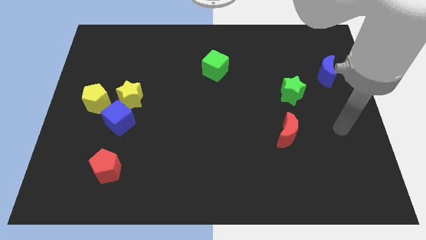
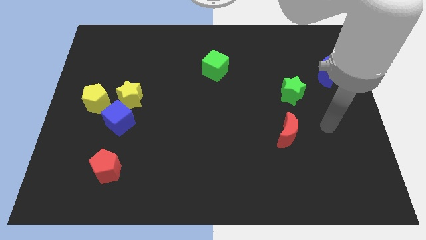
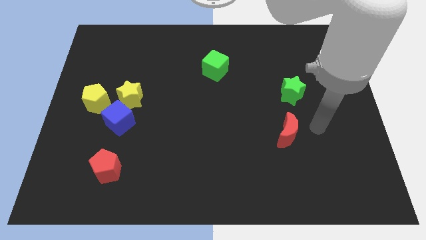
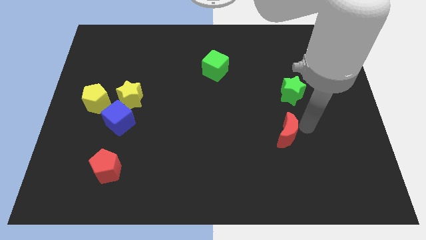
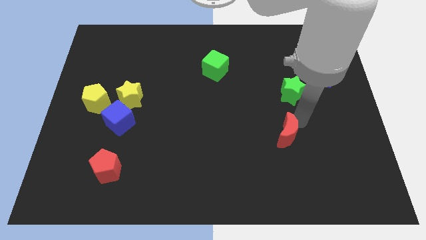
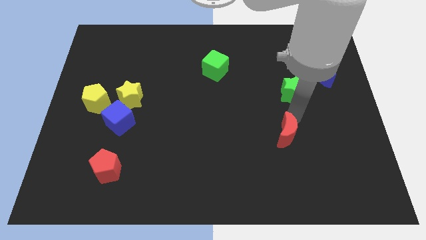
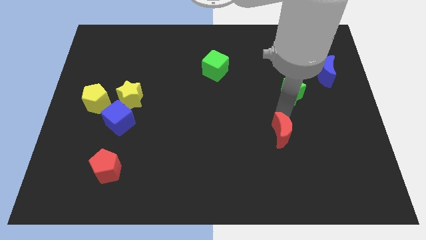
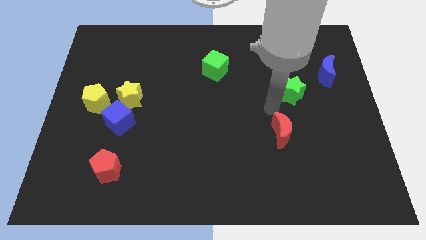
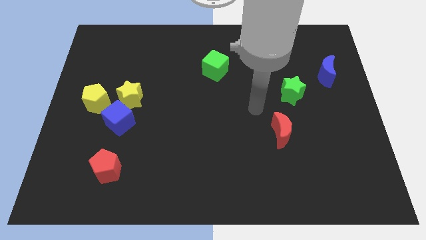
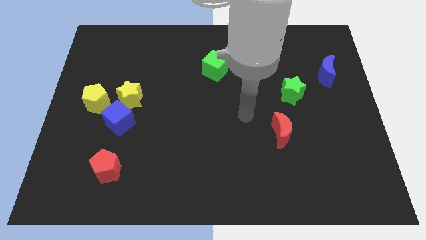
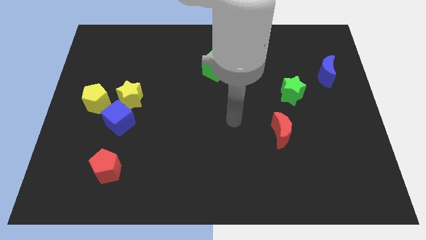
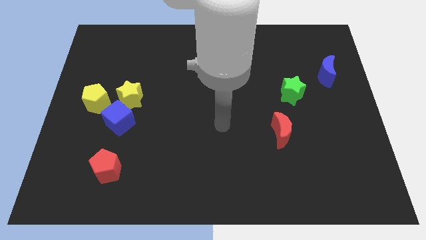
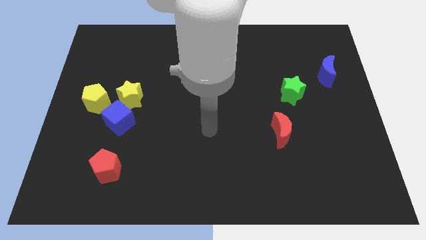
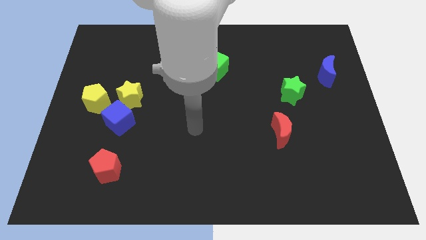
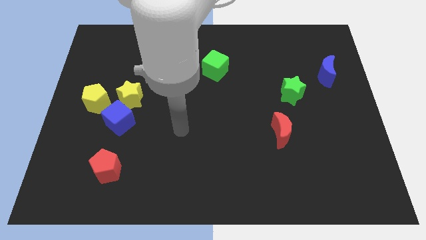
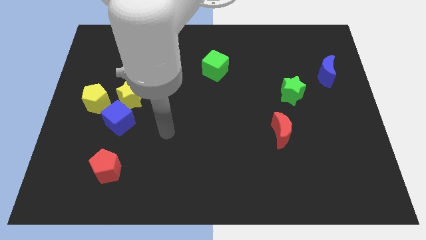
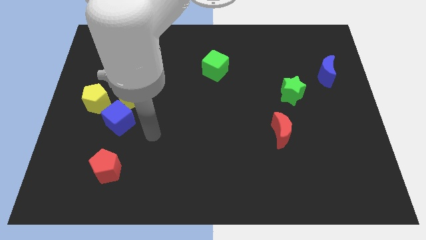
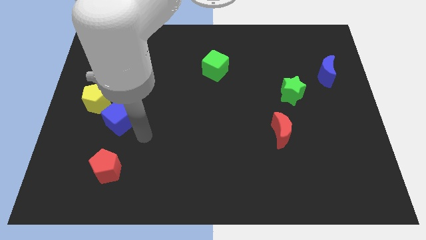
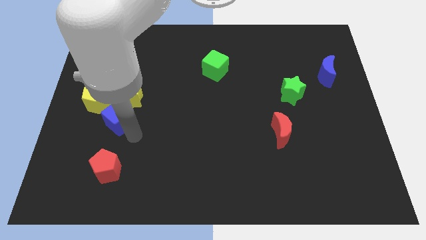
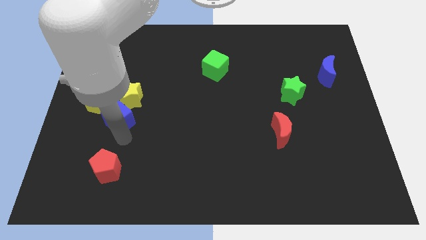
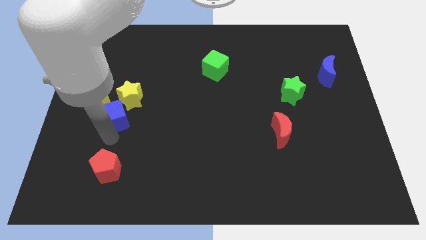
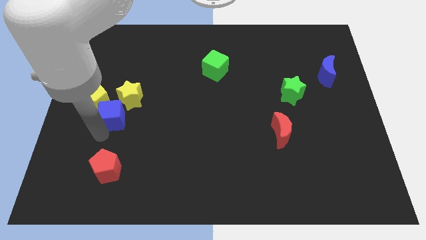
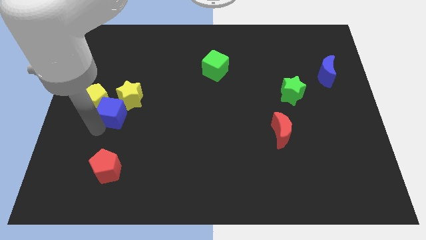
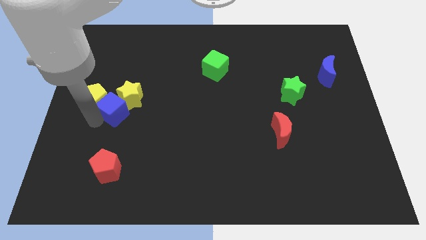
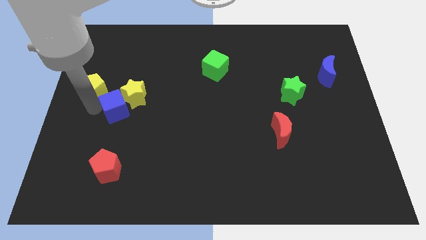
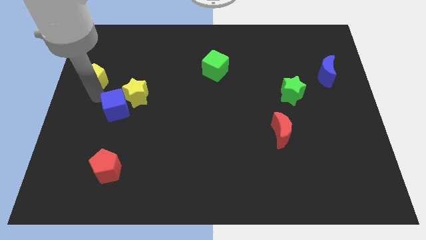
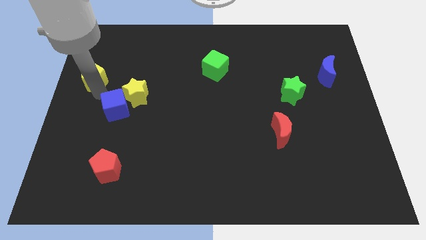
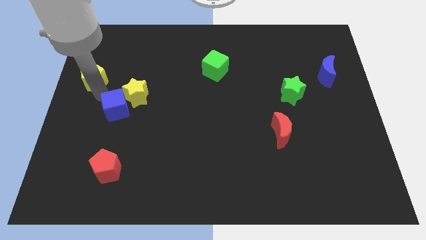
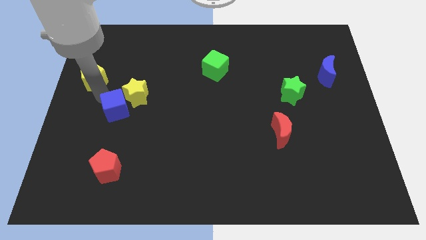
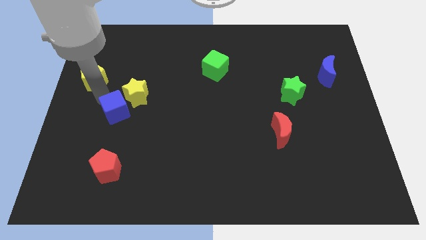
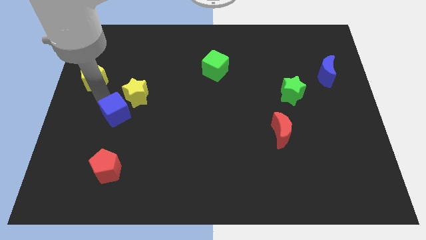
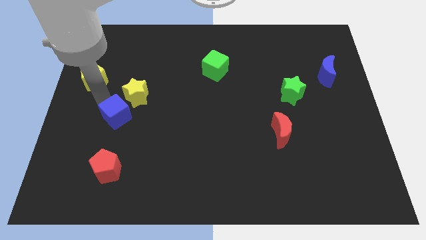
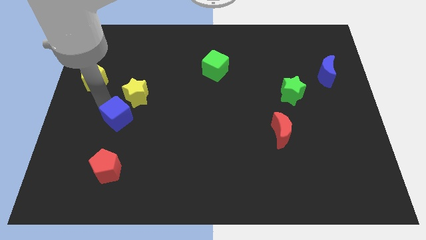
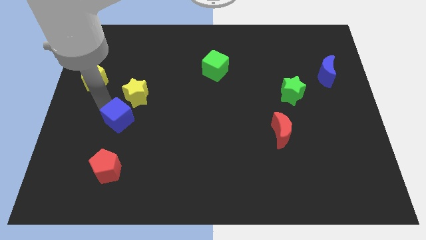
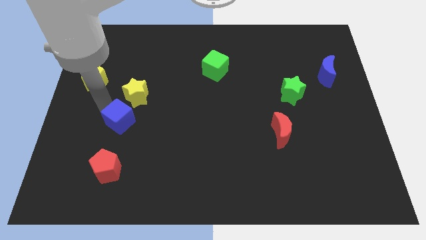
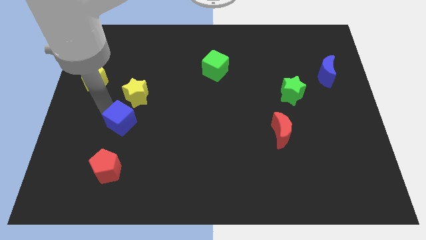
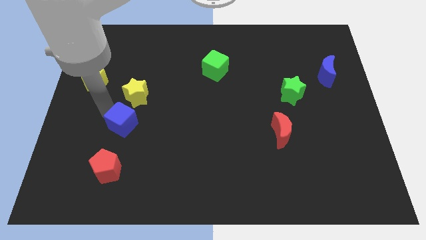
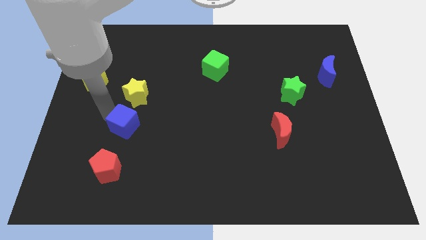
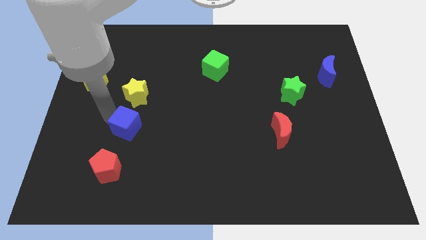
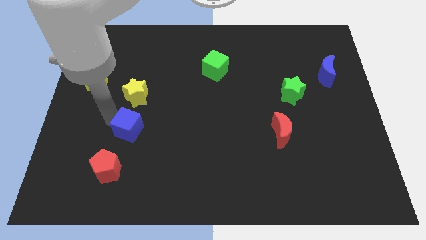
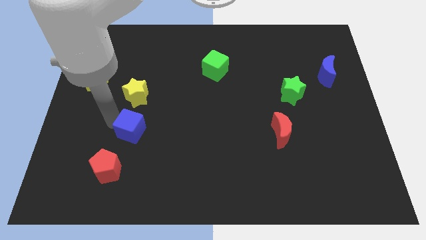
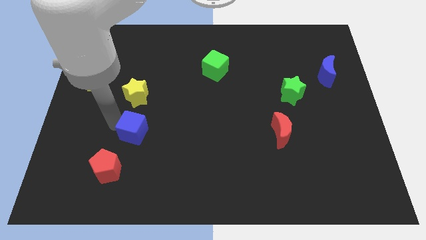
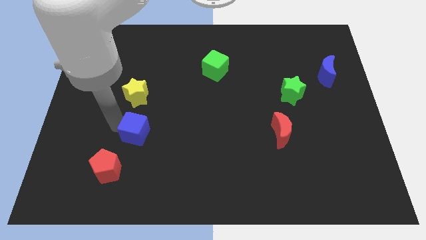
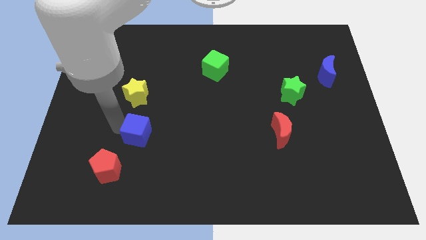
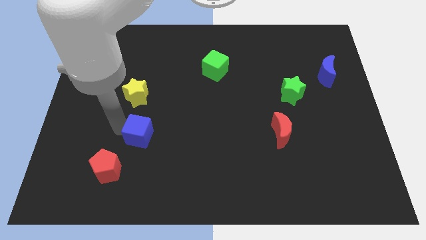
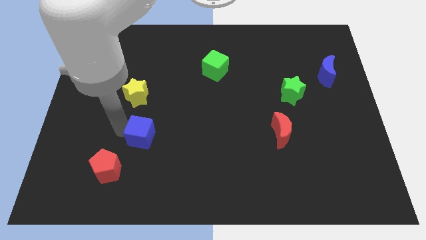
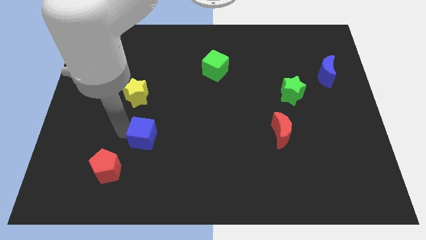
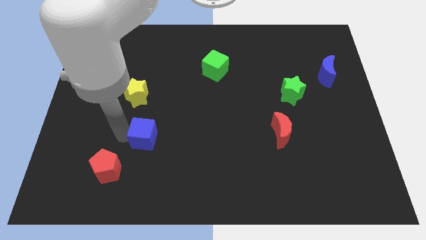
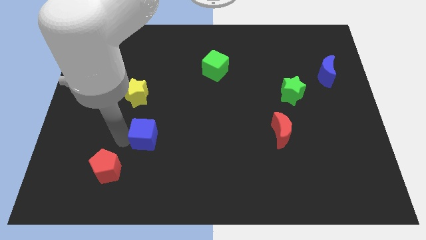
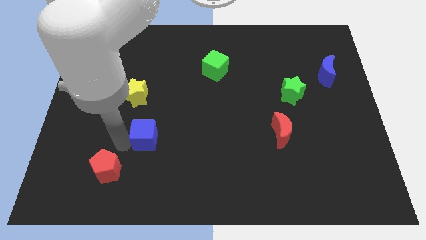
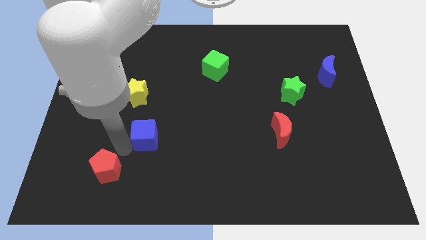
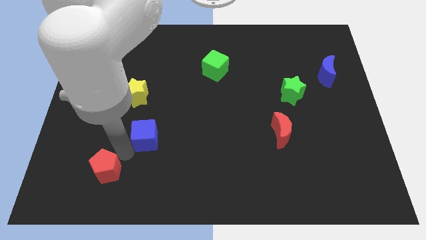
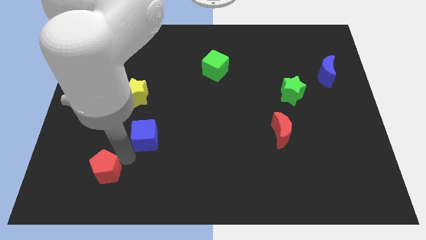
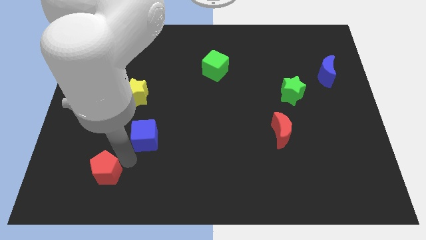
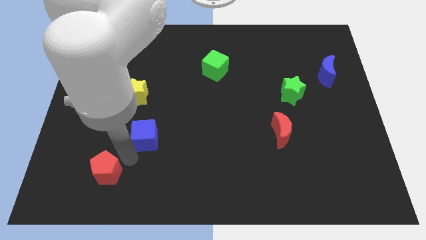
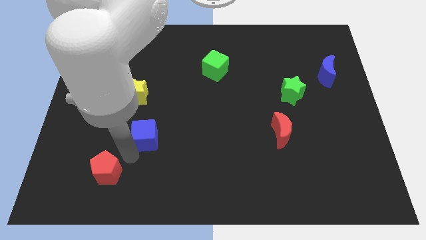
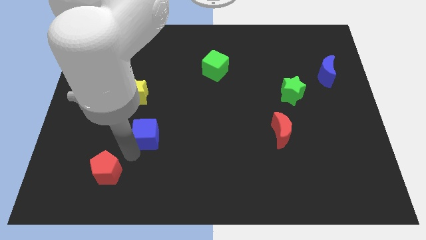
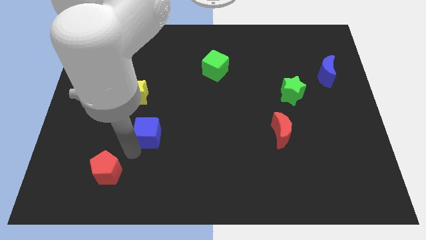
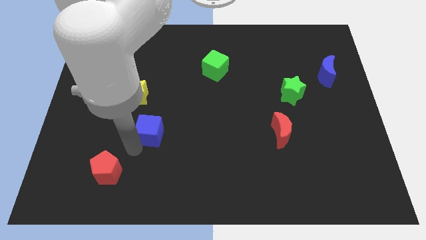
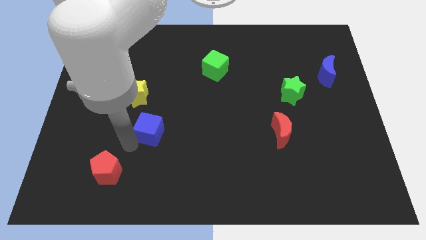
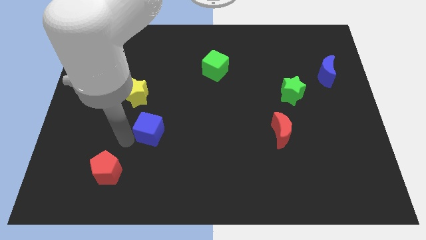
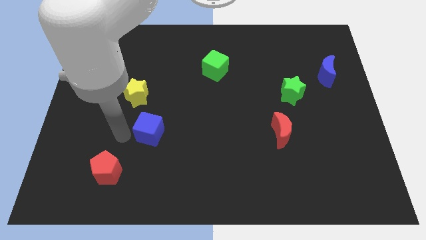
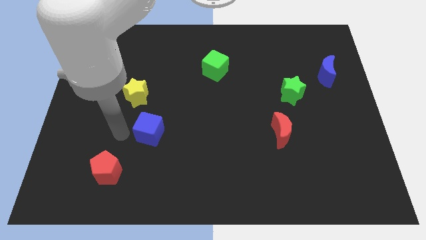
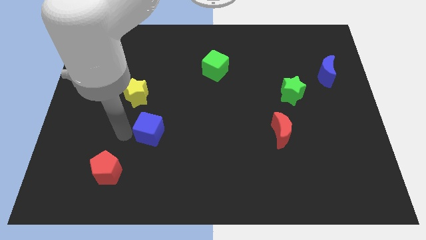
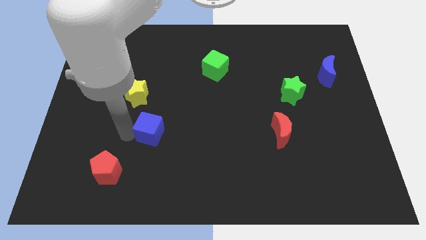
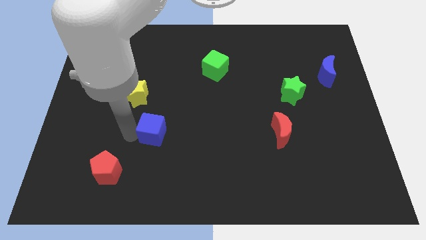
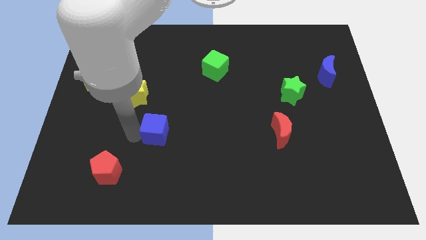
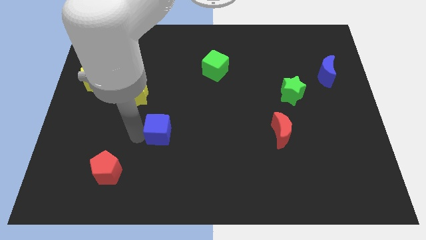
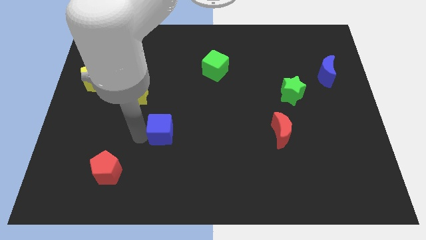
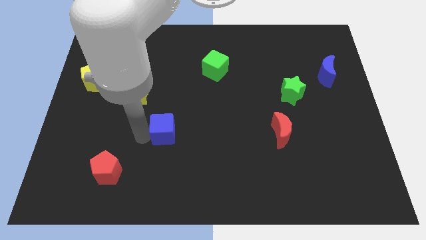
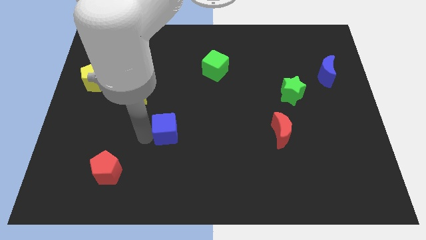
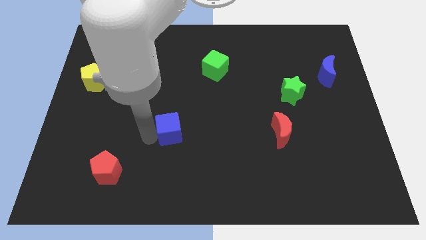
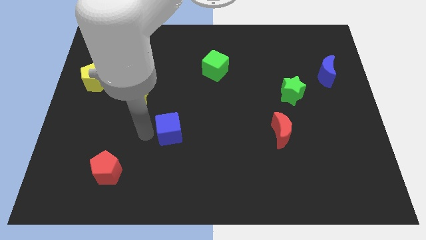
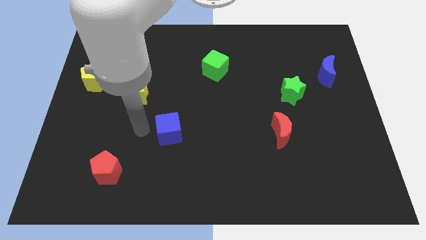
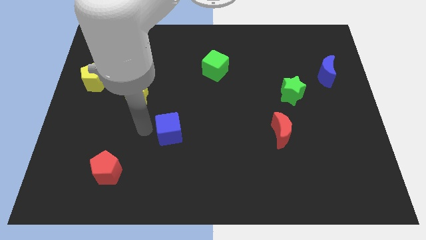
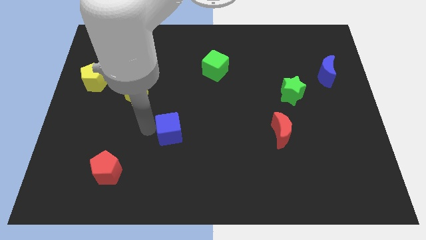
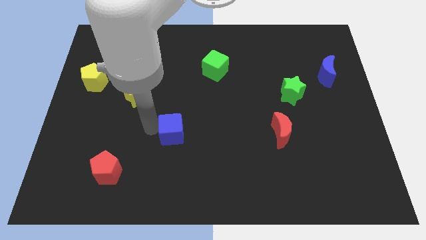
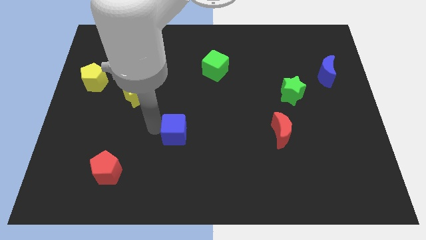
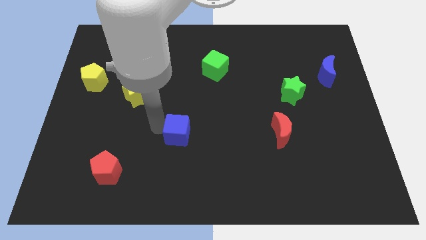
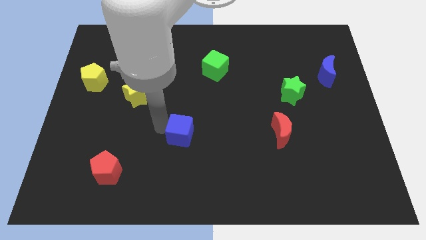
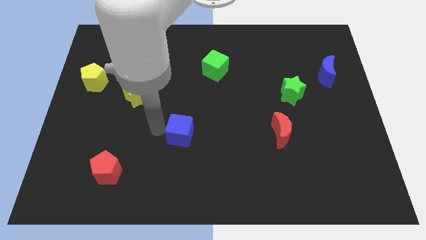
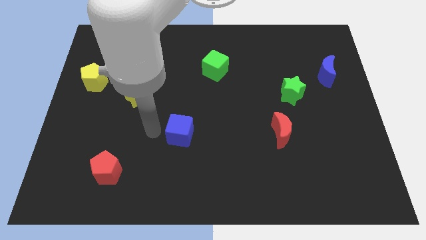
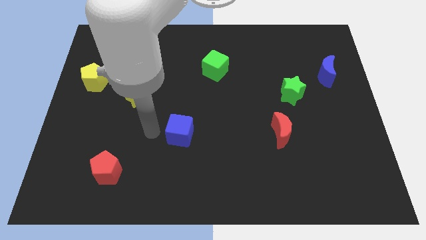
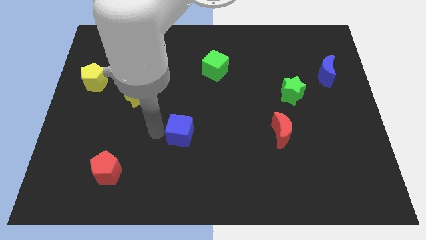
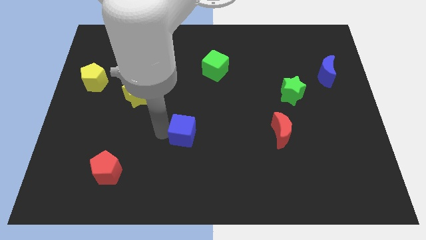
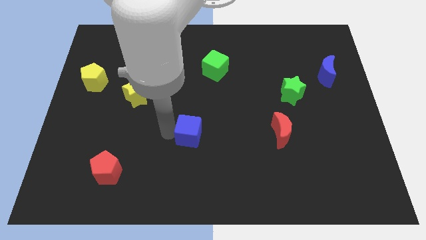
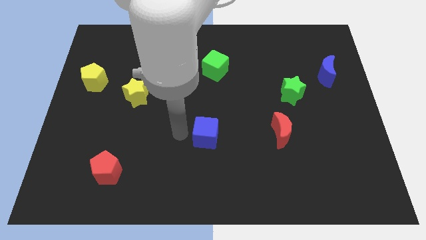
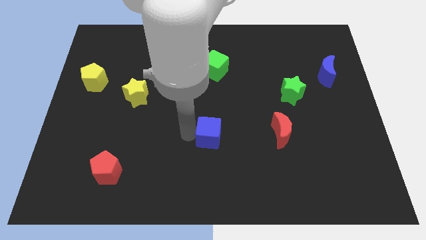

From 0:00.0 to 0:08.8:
move the blue cube to the left of the red moon
